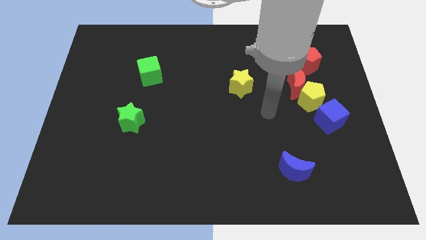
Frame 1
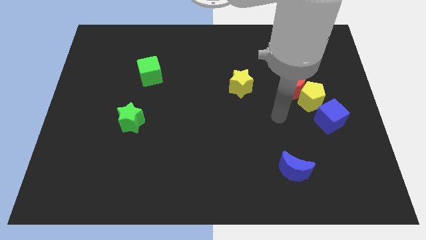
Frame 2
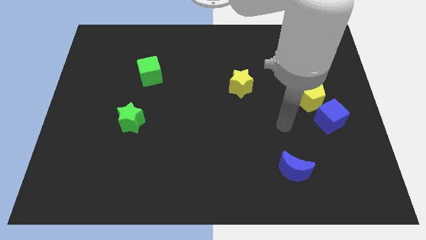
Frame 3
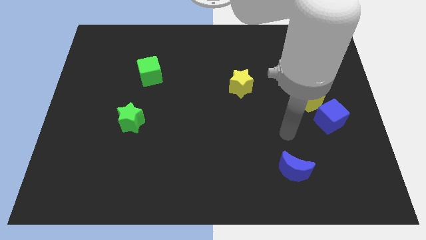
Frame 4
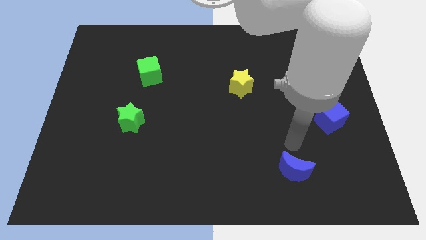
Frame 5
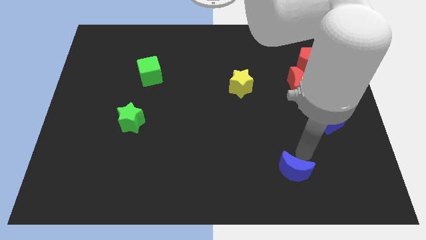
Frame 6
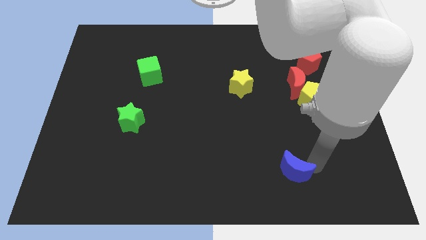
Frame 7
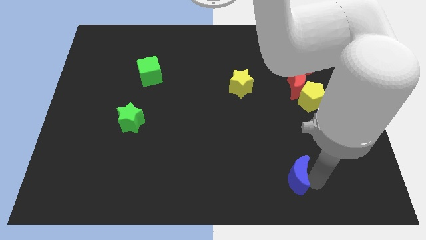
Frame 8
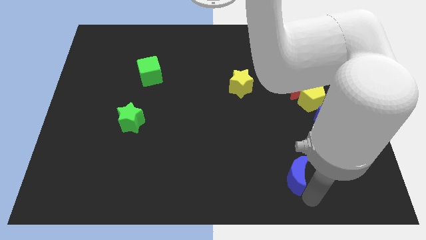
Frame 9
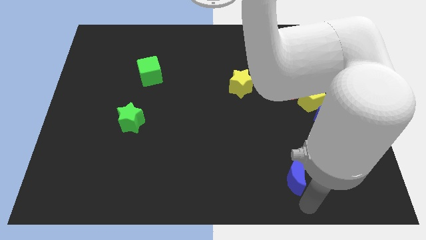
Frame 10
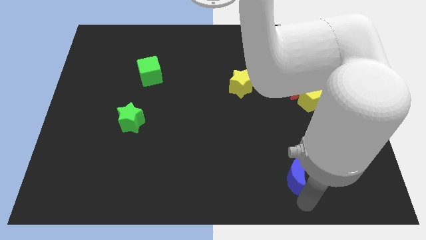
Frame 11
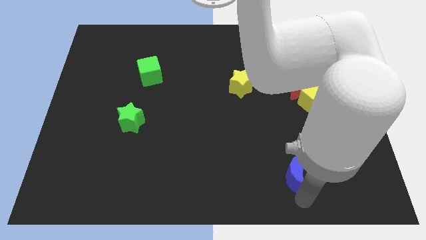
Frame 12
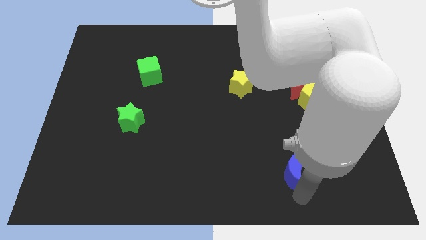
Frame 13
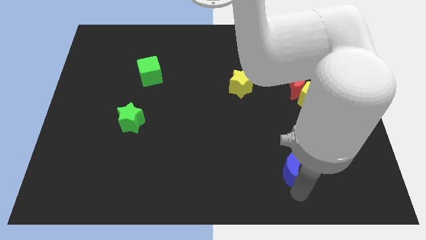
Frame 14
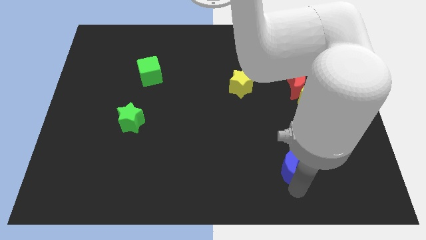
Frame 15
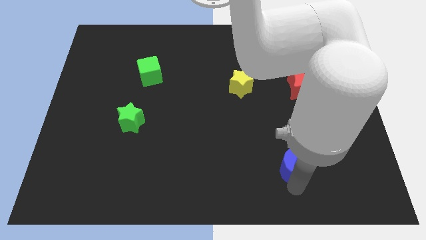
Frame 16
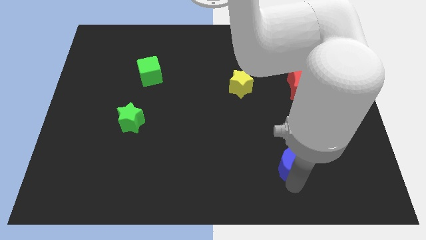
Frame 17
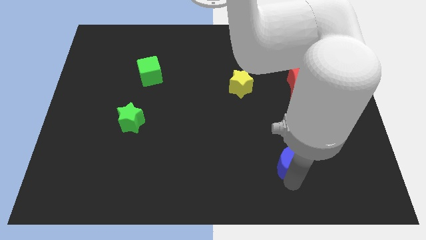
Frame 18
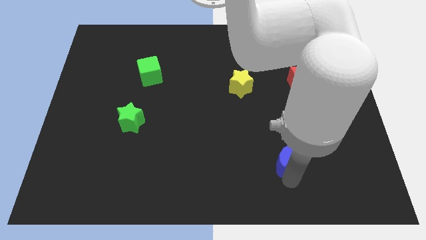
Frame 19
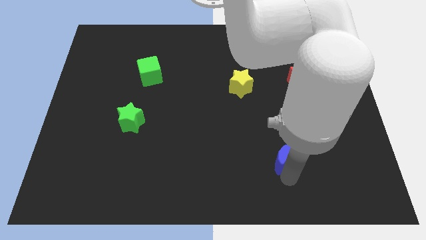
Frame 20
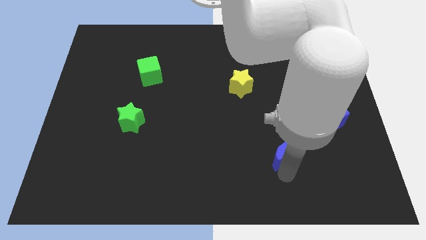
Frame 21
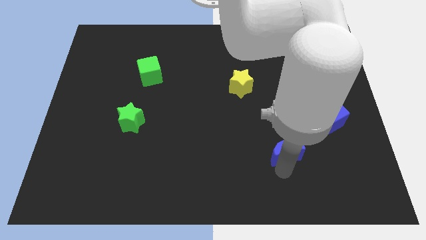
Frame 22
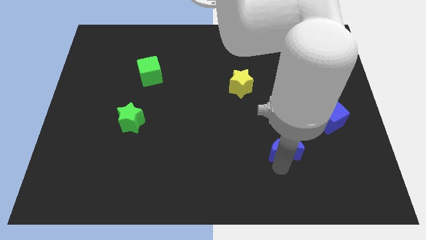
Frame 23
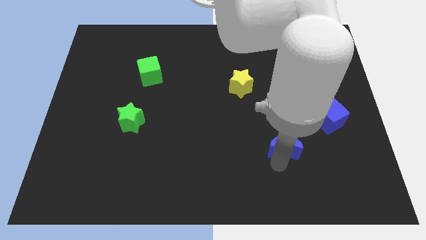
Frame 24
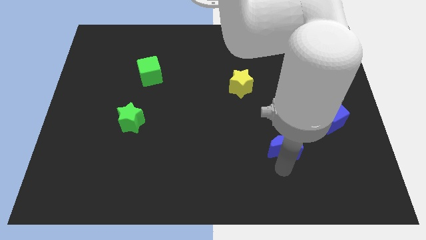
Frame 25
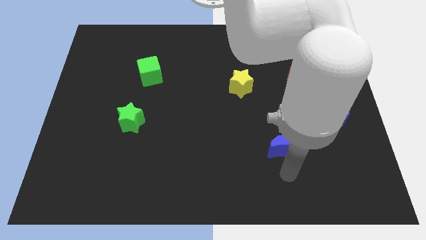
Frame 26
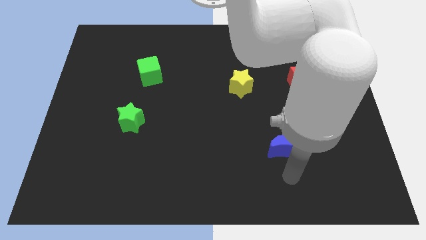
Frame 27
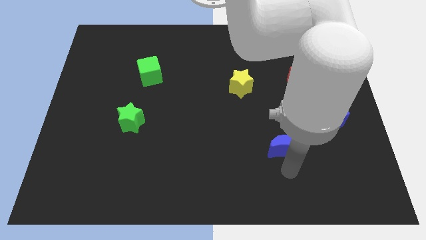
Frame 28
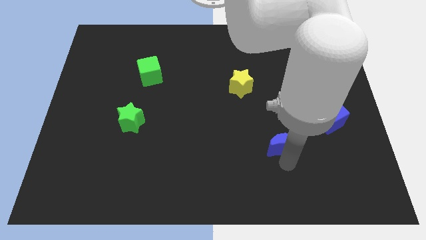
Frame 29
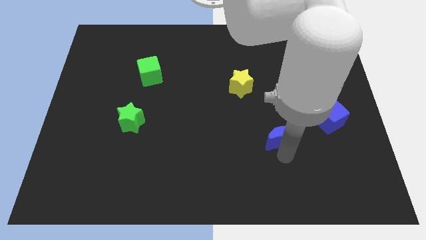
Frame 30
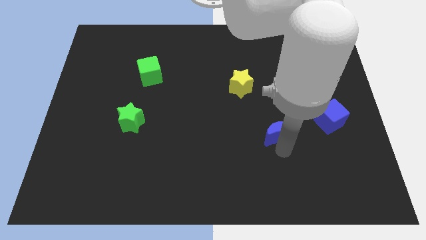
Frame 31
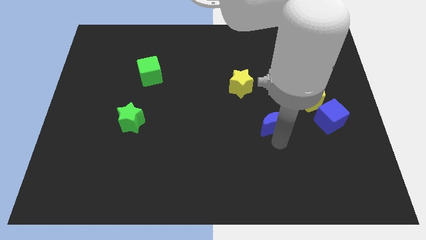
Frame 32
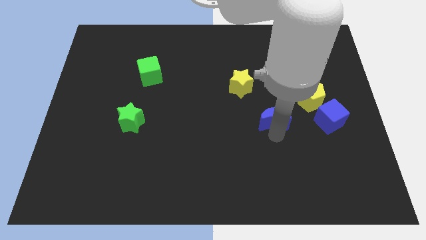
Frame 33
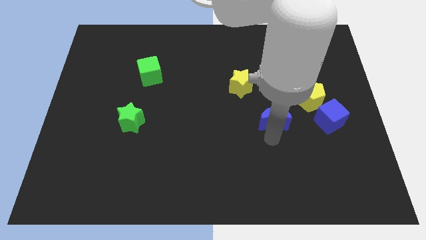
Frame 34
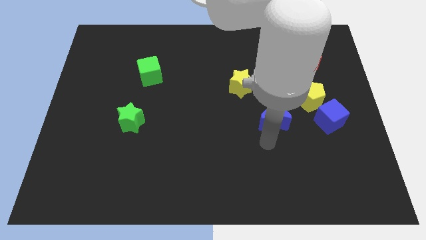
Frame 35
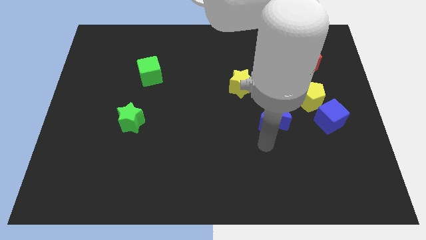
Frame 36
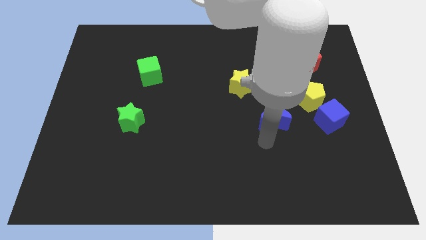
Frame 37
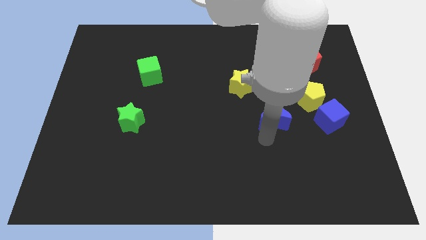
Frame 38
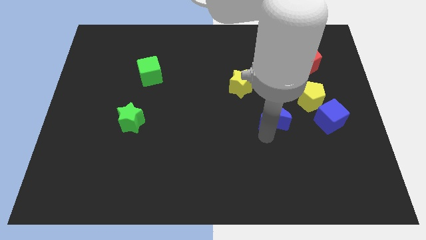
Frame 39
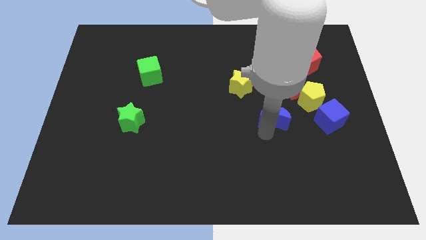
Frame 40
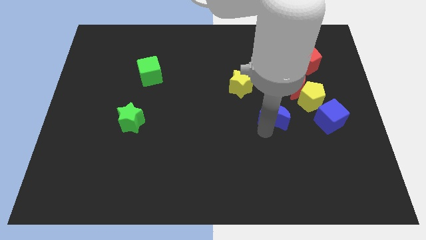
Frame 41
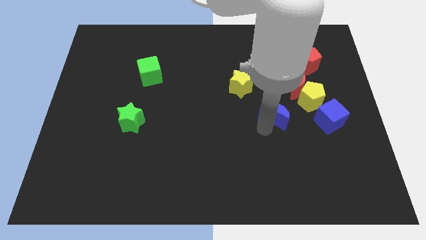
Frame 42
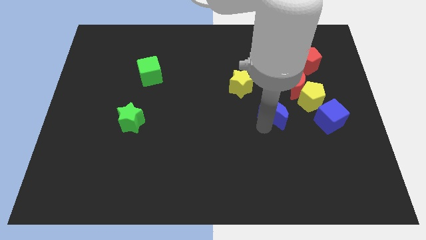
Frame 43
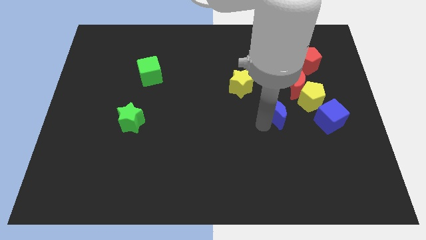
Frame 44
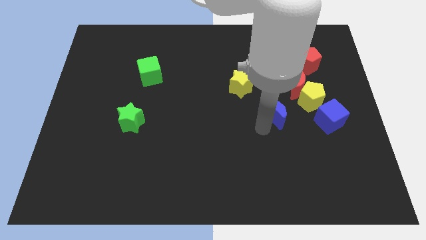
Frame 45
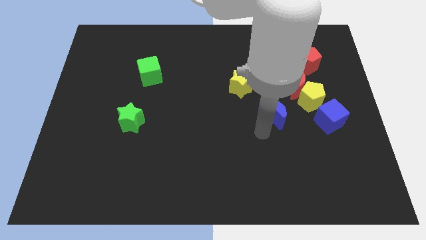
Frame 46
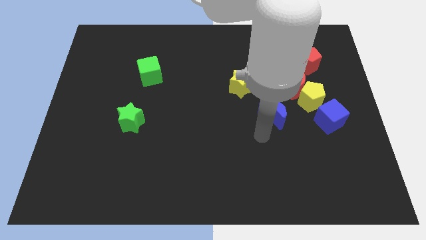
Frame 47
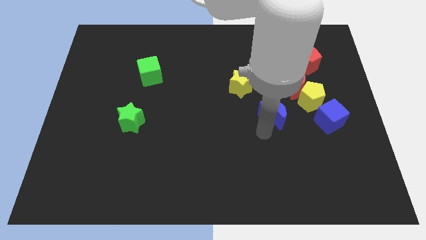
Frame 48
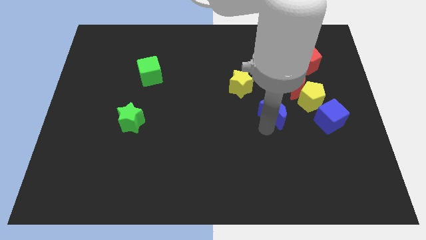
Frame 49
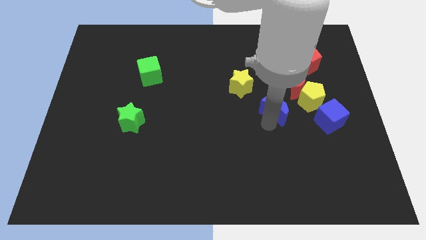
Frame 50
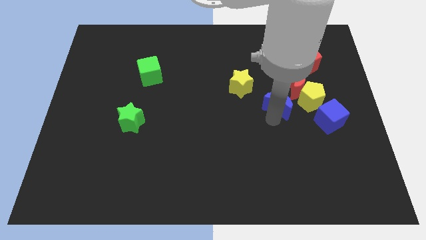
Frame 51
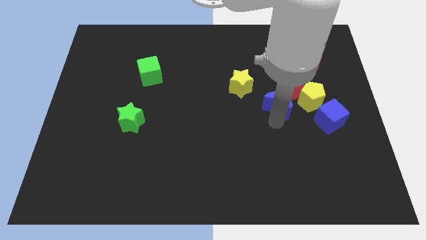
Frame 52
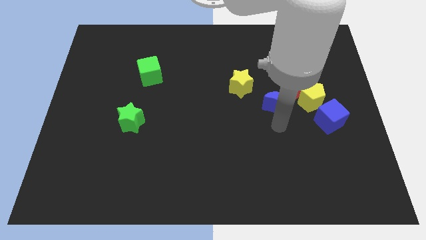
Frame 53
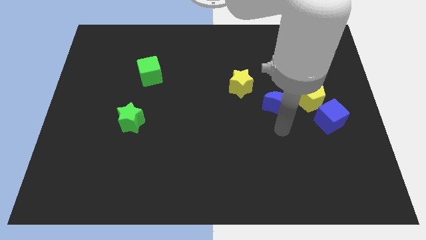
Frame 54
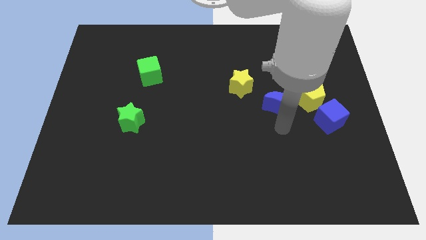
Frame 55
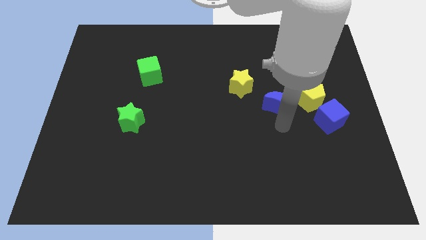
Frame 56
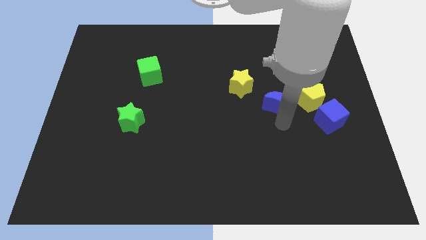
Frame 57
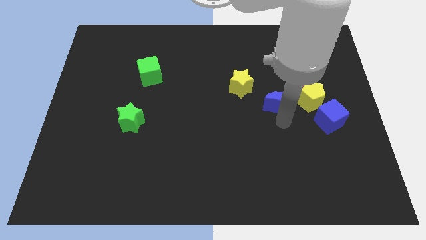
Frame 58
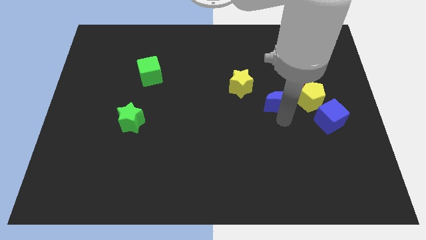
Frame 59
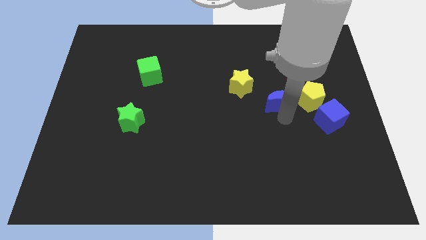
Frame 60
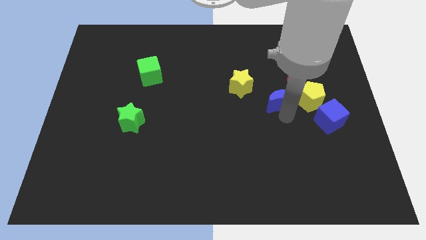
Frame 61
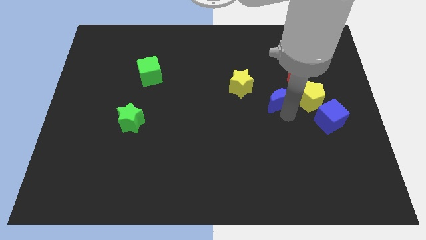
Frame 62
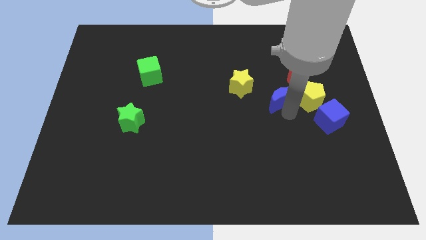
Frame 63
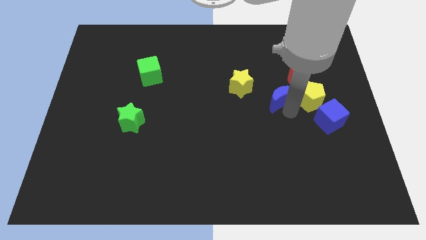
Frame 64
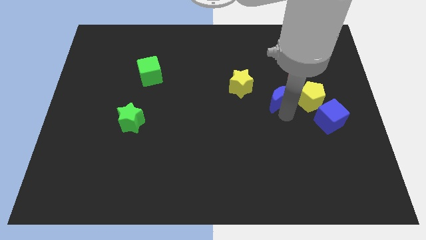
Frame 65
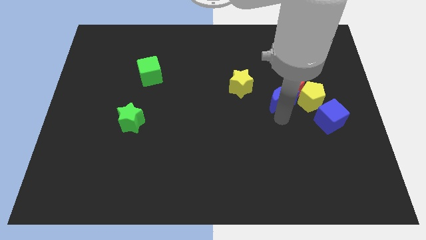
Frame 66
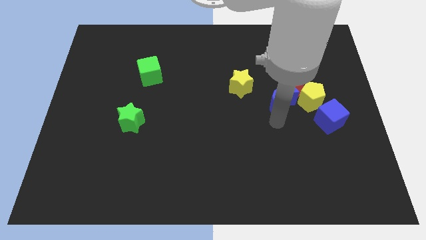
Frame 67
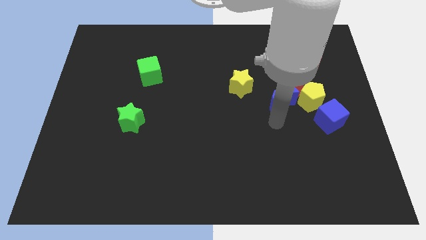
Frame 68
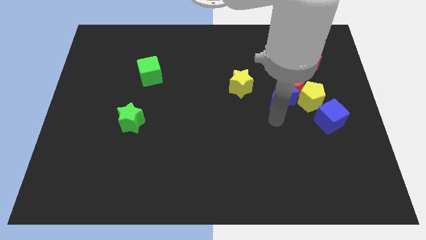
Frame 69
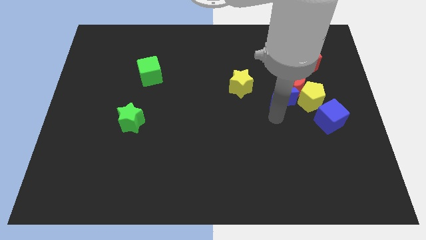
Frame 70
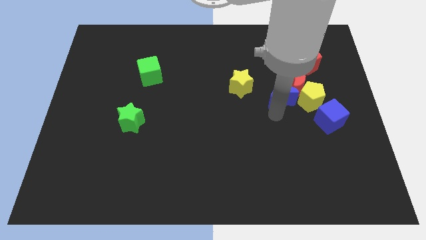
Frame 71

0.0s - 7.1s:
slide the blue moon to the top left side of the yellow pentagon
